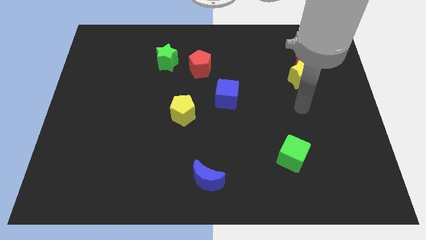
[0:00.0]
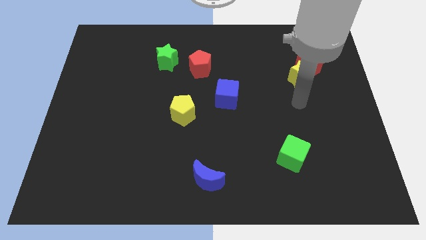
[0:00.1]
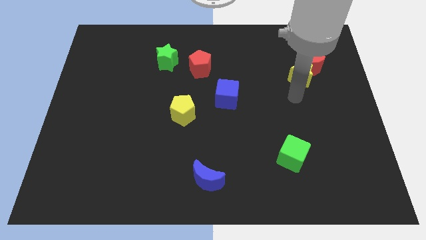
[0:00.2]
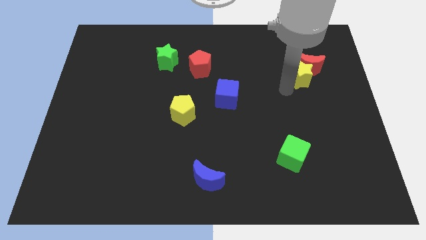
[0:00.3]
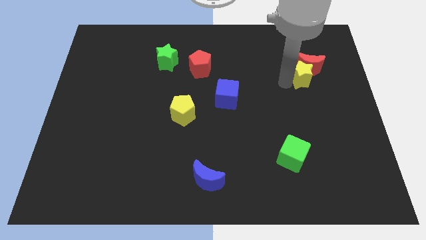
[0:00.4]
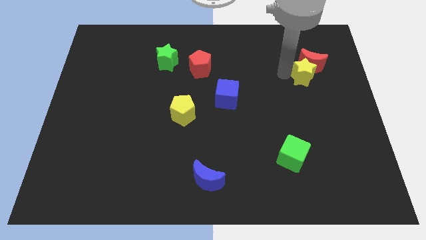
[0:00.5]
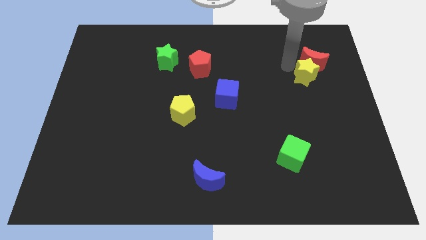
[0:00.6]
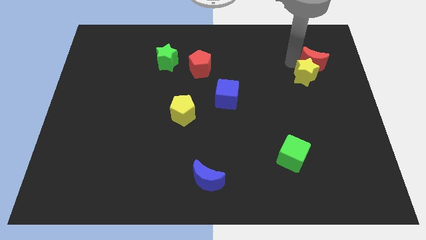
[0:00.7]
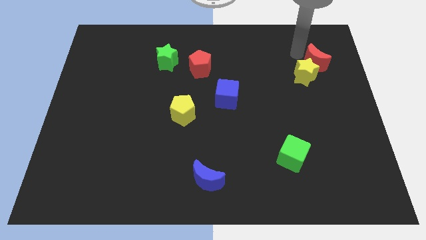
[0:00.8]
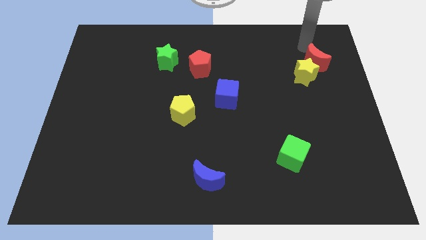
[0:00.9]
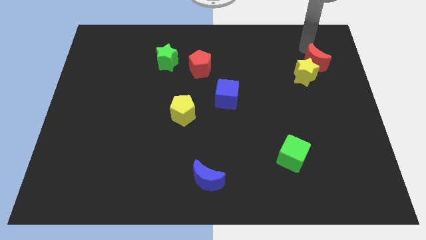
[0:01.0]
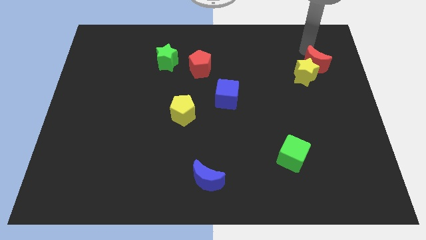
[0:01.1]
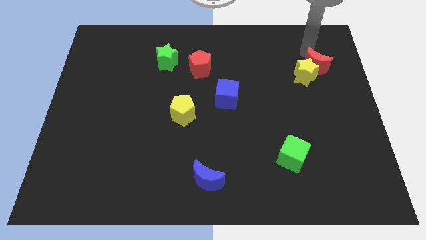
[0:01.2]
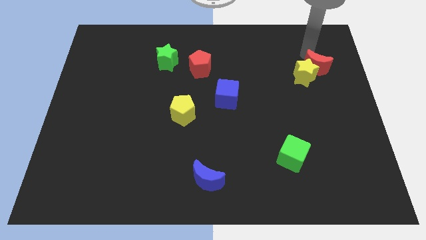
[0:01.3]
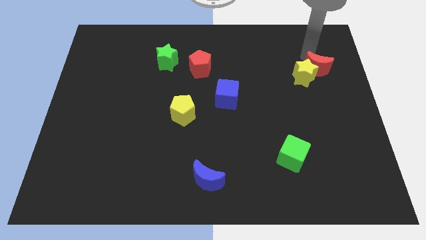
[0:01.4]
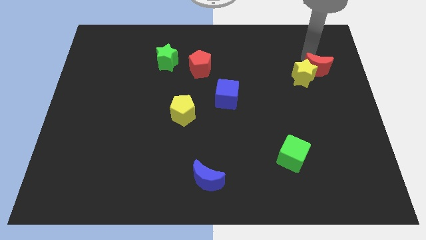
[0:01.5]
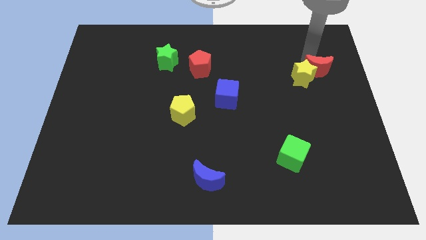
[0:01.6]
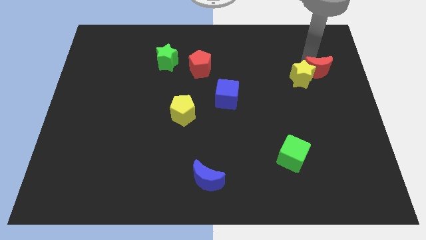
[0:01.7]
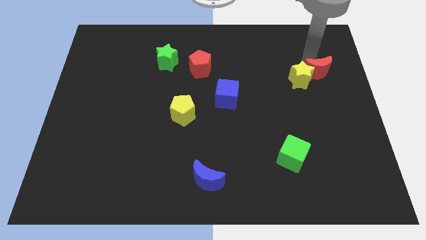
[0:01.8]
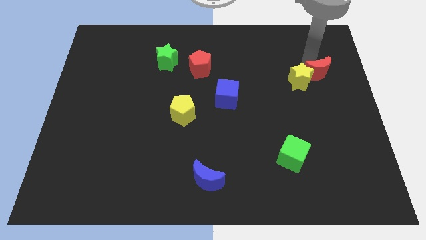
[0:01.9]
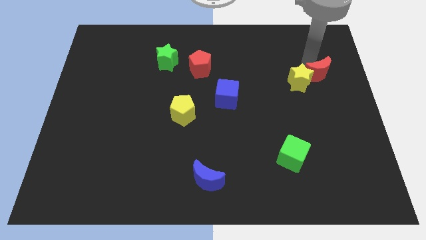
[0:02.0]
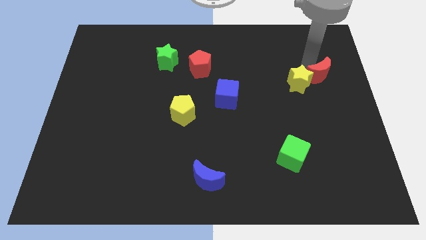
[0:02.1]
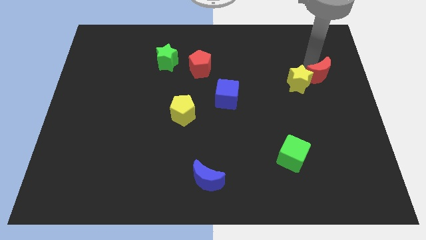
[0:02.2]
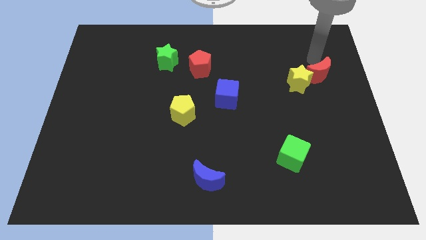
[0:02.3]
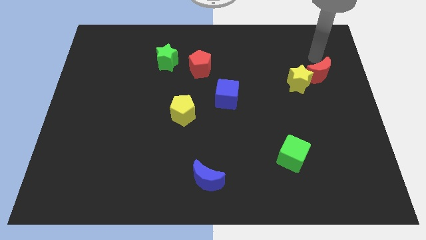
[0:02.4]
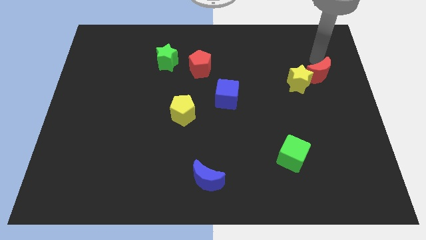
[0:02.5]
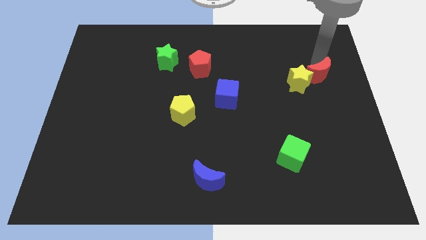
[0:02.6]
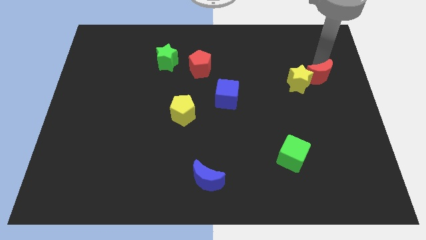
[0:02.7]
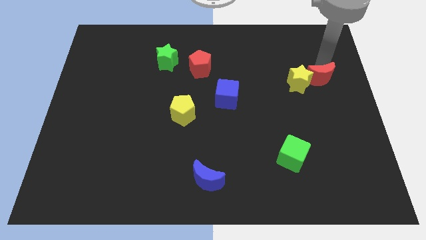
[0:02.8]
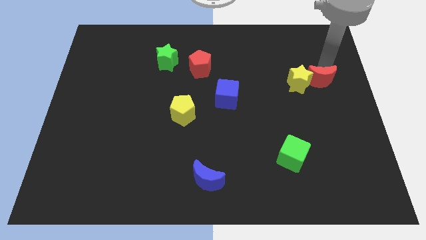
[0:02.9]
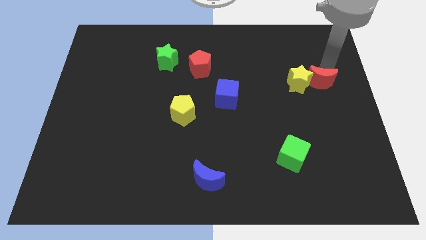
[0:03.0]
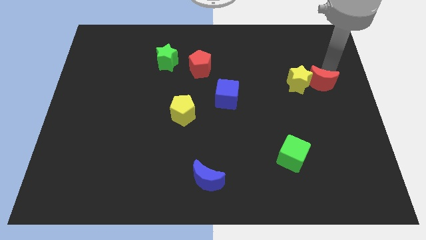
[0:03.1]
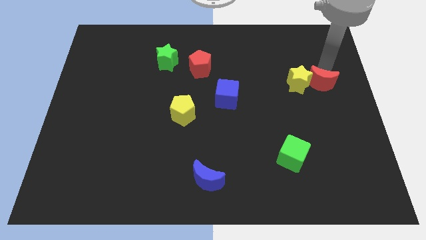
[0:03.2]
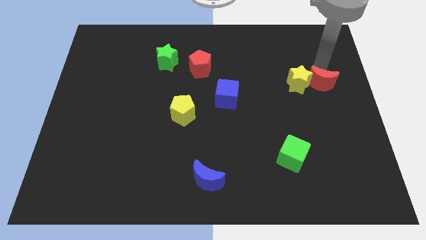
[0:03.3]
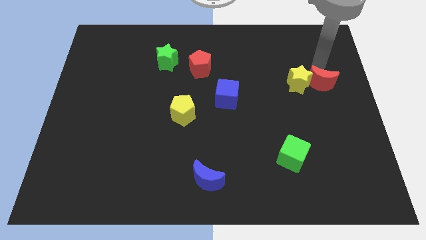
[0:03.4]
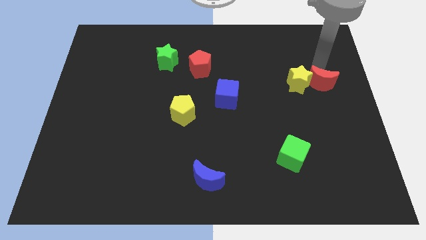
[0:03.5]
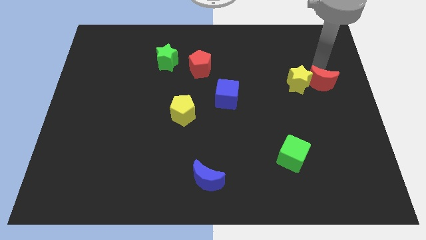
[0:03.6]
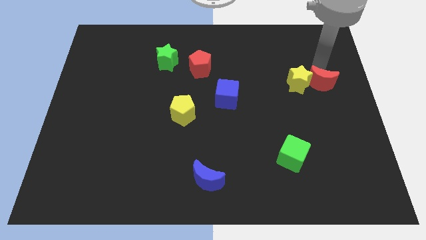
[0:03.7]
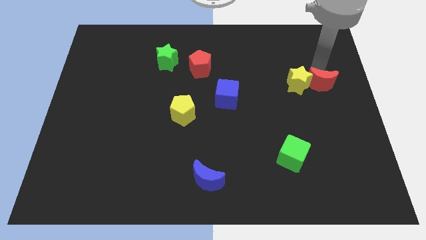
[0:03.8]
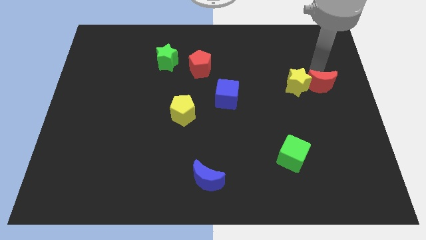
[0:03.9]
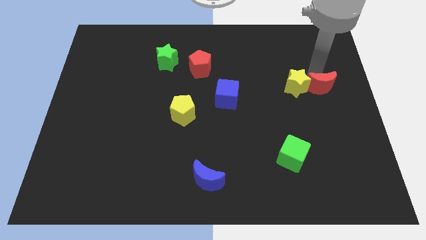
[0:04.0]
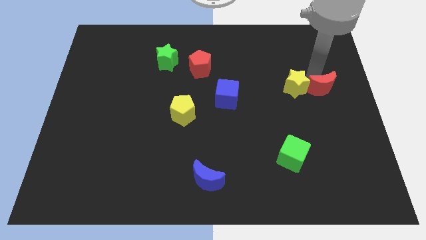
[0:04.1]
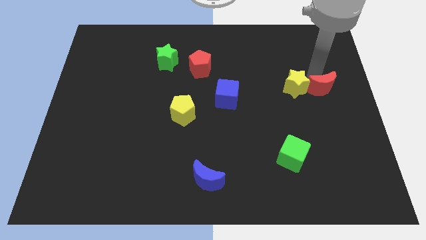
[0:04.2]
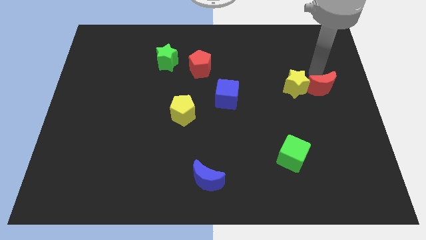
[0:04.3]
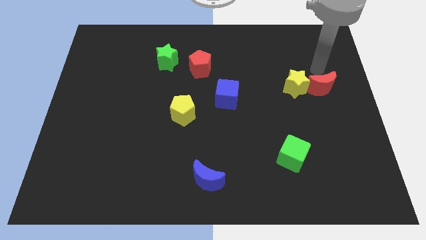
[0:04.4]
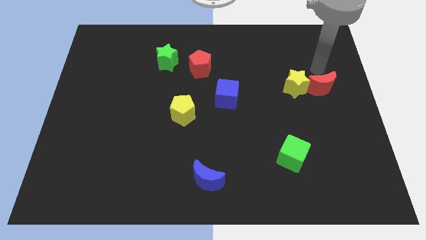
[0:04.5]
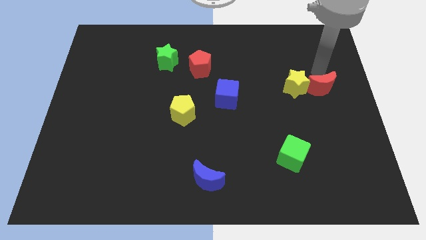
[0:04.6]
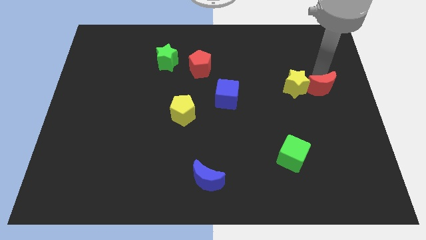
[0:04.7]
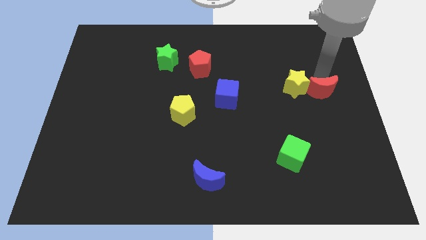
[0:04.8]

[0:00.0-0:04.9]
slide the red moon a little down

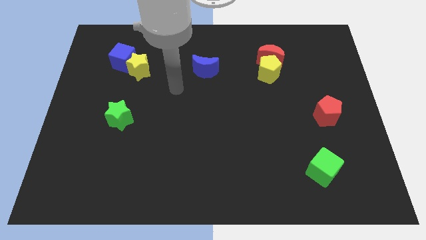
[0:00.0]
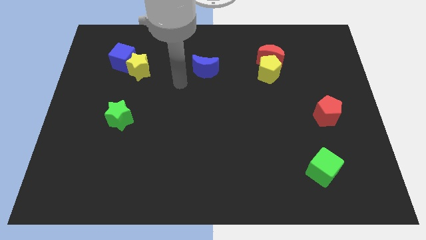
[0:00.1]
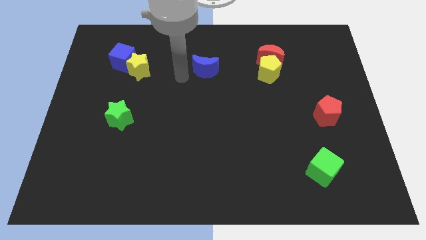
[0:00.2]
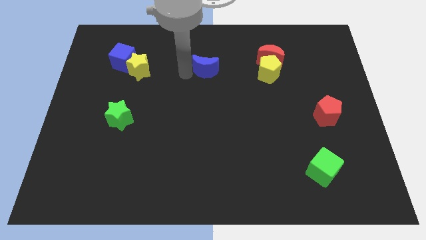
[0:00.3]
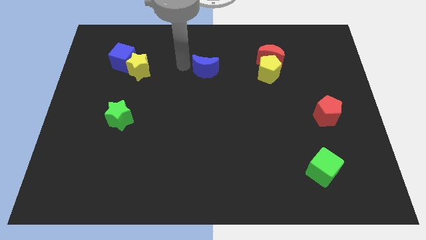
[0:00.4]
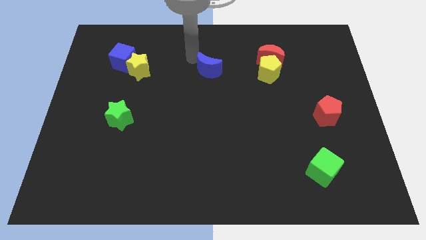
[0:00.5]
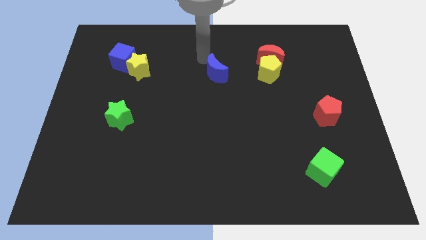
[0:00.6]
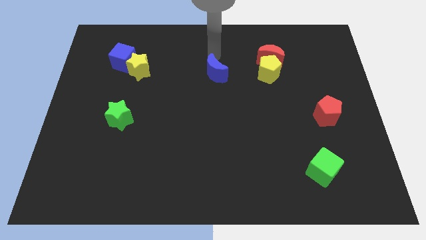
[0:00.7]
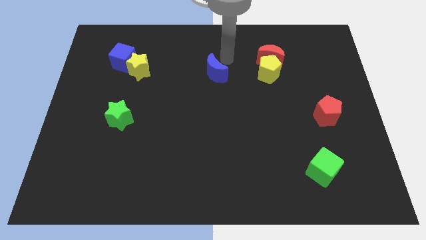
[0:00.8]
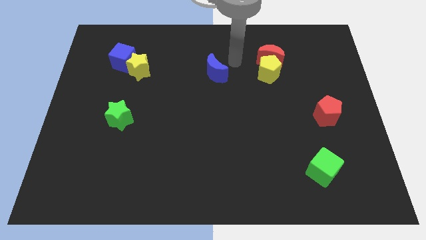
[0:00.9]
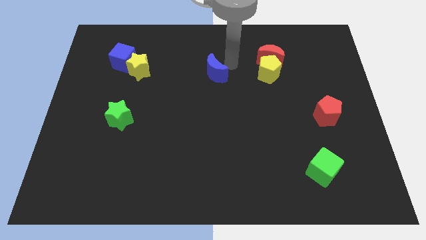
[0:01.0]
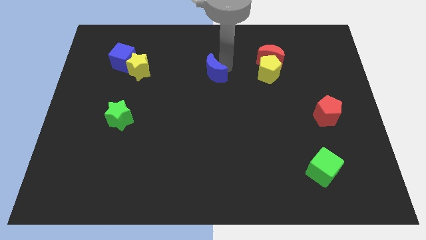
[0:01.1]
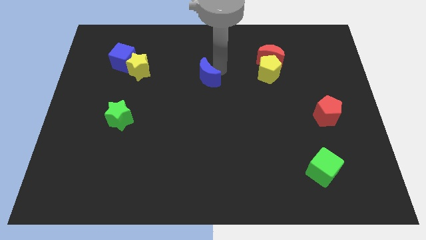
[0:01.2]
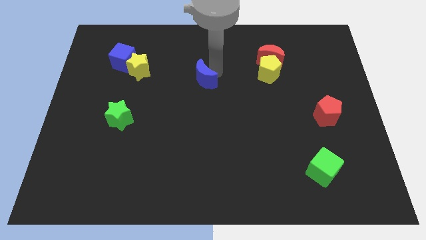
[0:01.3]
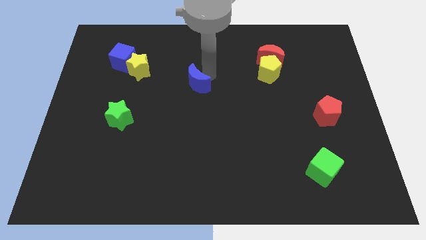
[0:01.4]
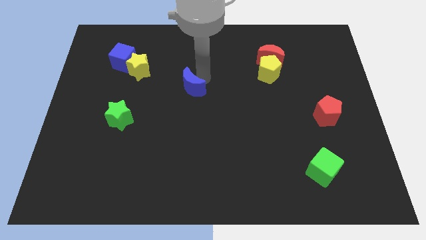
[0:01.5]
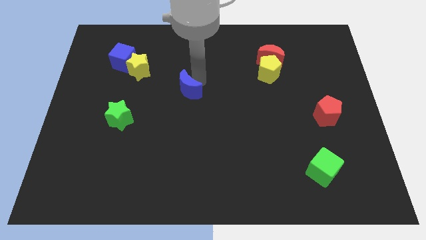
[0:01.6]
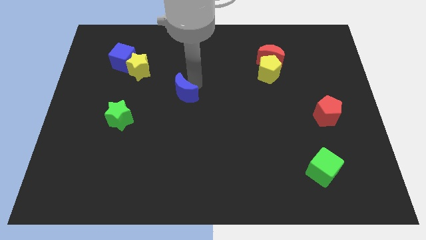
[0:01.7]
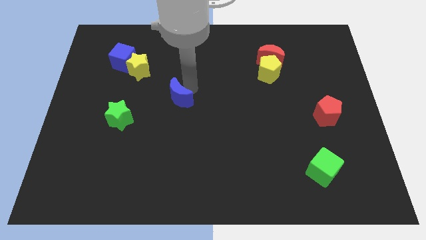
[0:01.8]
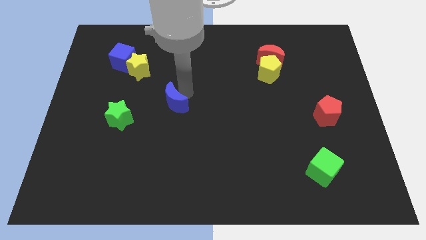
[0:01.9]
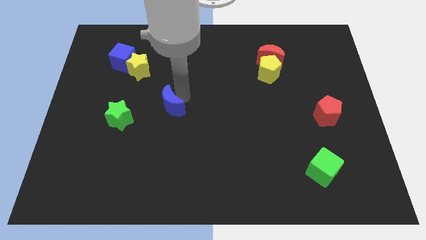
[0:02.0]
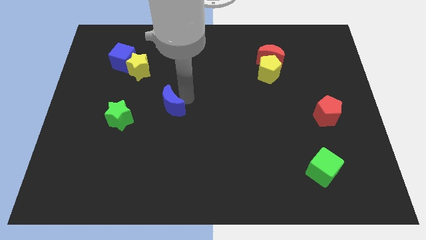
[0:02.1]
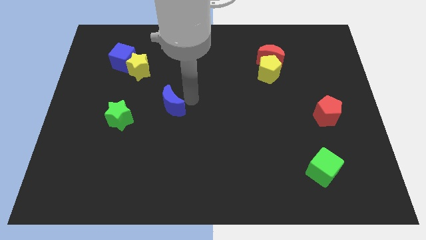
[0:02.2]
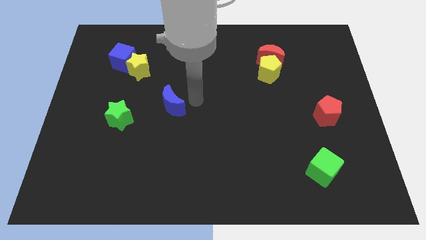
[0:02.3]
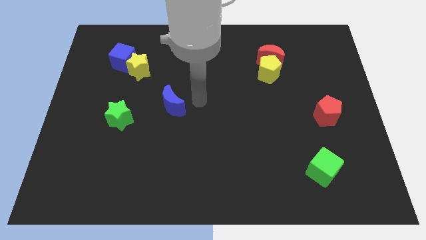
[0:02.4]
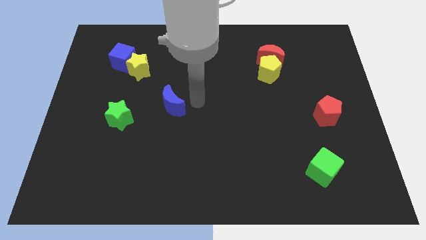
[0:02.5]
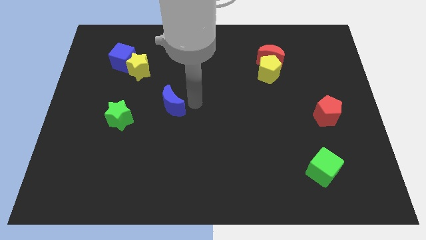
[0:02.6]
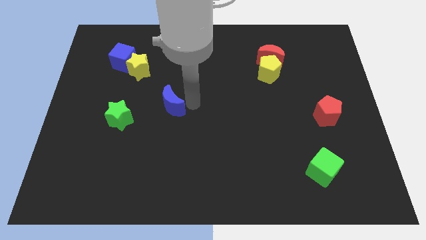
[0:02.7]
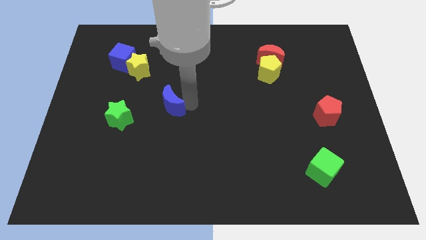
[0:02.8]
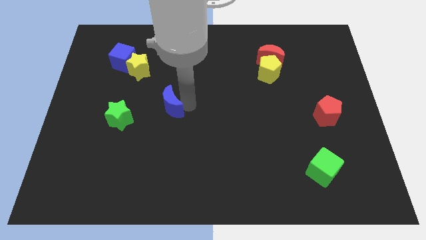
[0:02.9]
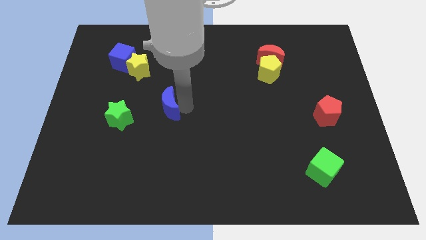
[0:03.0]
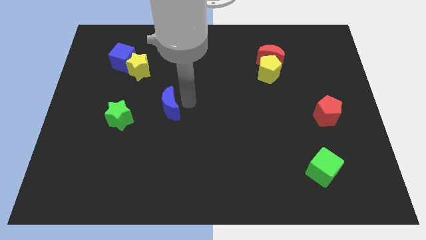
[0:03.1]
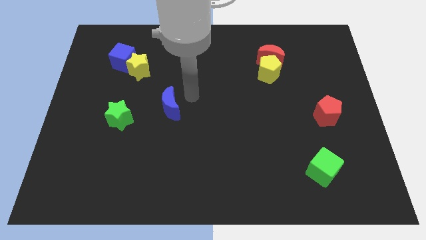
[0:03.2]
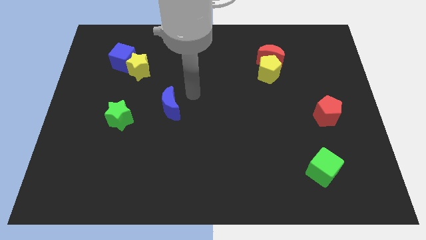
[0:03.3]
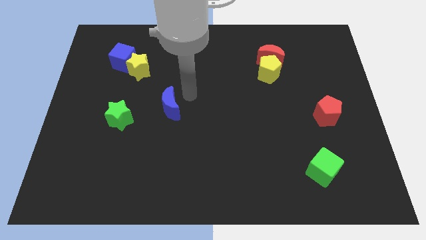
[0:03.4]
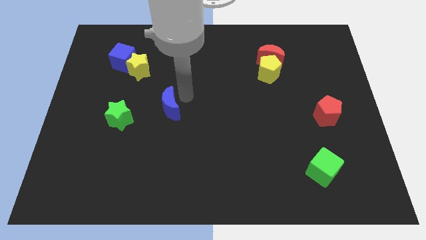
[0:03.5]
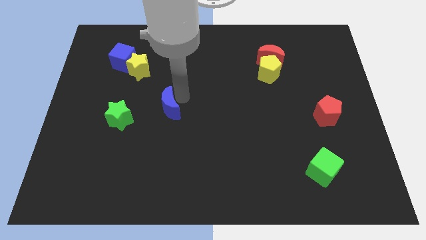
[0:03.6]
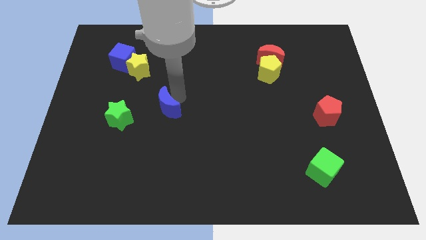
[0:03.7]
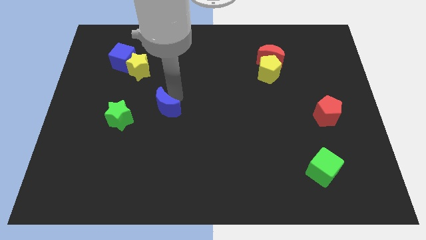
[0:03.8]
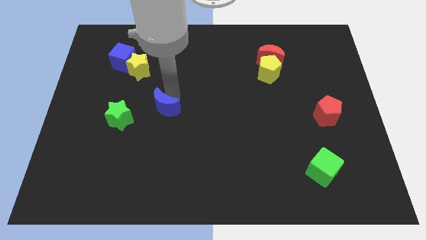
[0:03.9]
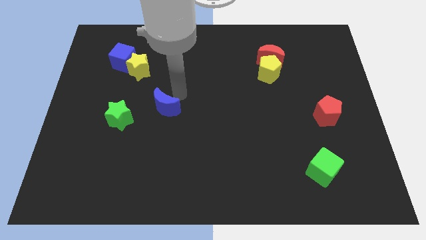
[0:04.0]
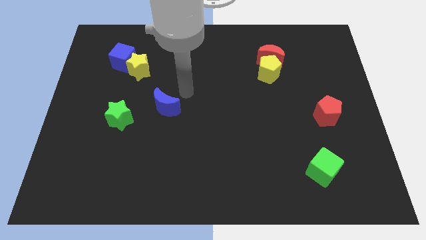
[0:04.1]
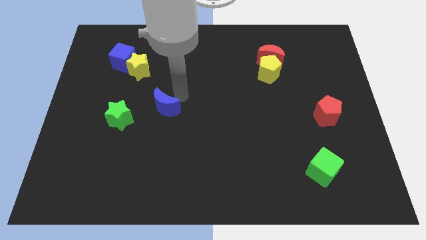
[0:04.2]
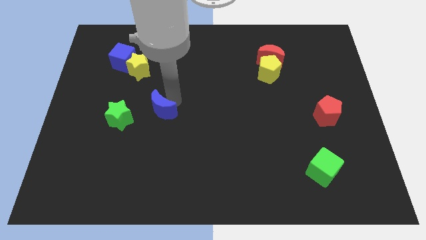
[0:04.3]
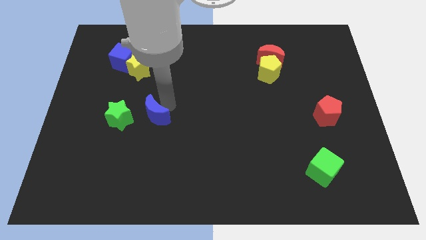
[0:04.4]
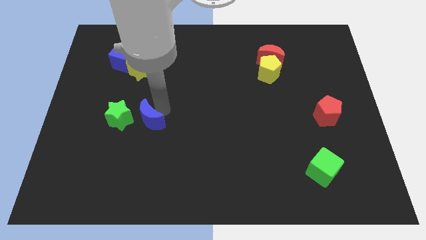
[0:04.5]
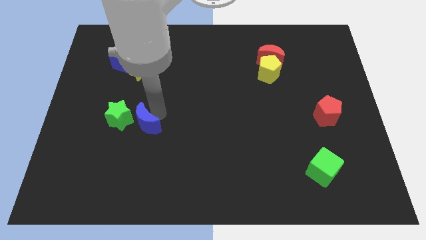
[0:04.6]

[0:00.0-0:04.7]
slide the blue moon downwards and to the left diagonally
